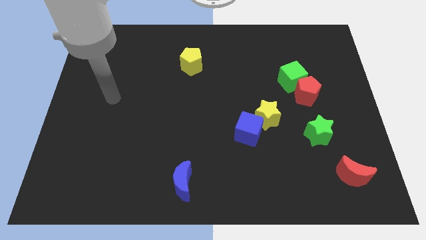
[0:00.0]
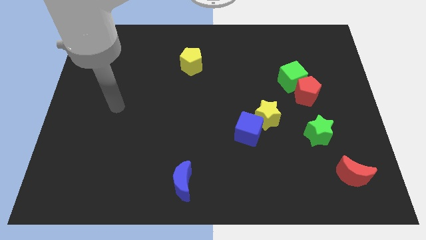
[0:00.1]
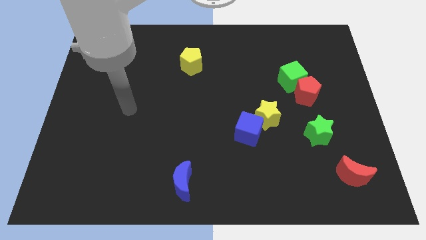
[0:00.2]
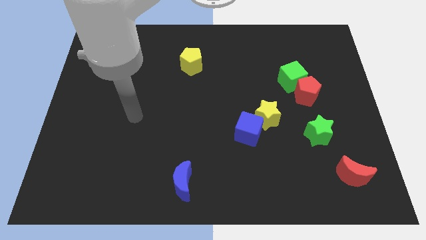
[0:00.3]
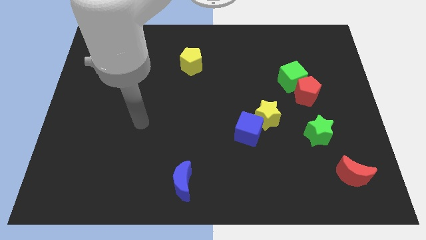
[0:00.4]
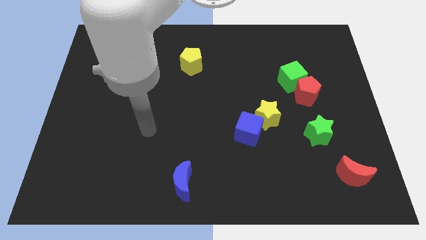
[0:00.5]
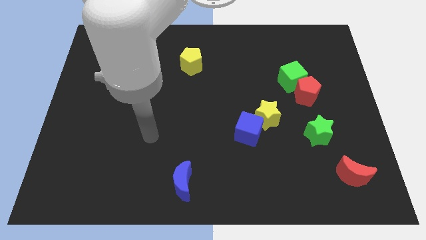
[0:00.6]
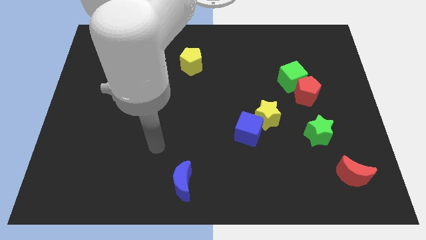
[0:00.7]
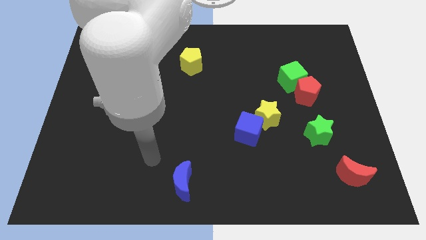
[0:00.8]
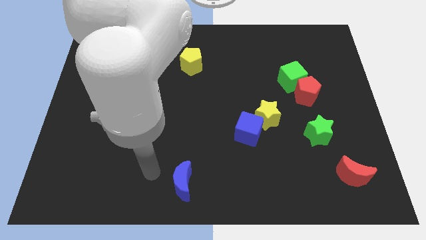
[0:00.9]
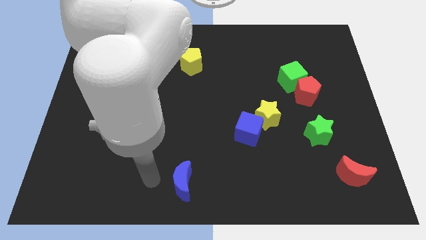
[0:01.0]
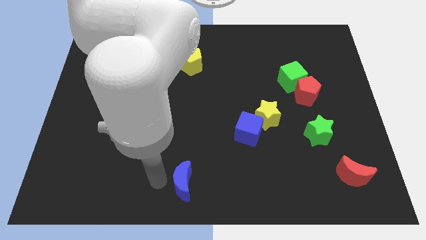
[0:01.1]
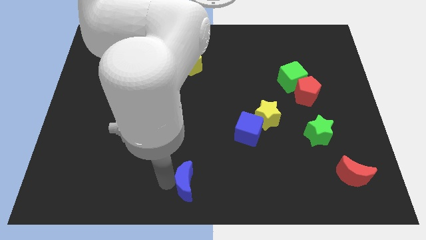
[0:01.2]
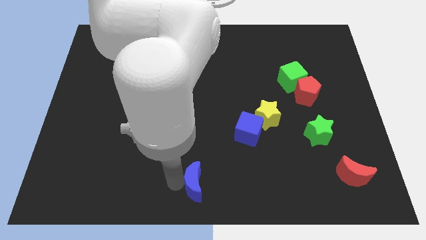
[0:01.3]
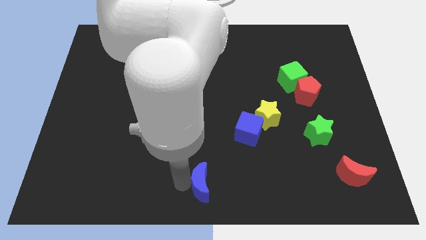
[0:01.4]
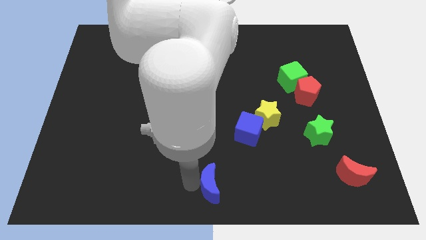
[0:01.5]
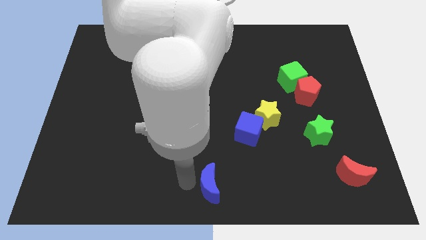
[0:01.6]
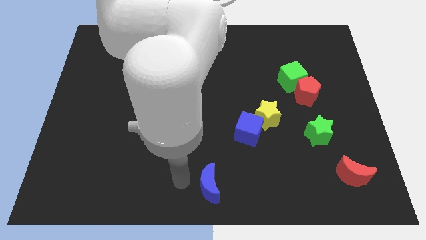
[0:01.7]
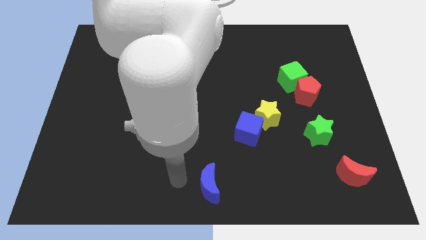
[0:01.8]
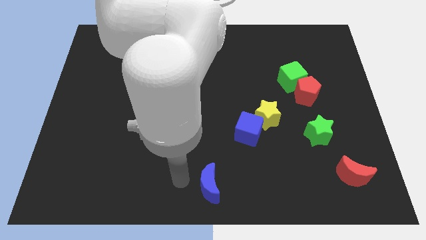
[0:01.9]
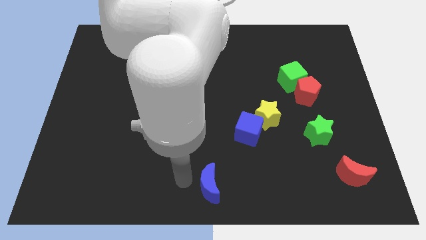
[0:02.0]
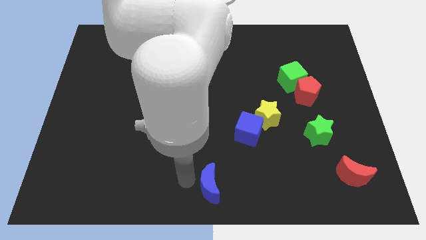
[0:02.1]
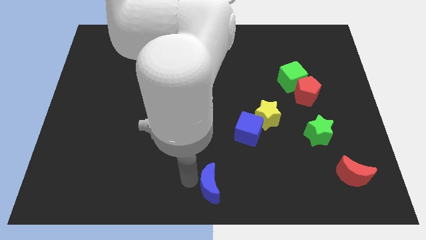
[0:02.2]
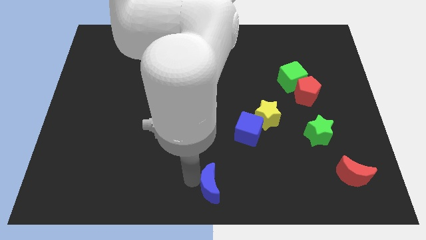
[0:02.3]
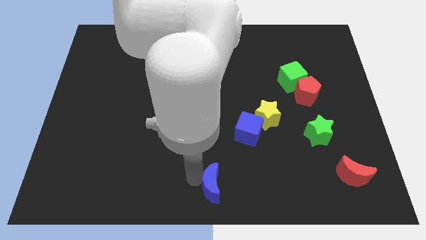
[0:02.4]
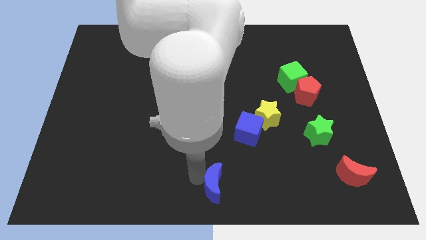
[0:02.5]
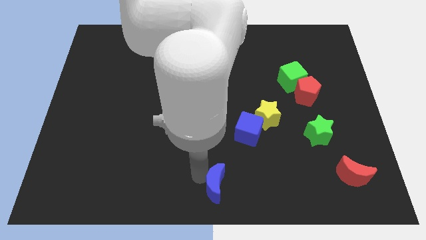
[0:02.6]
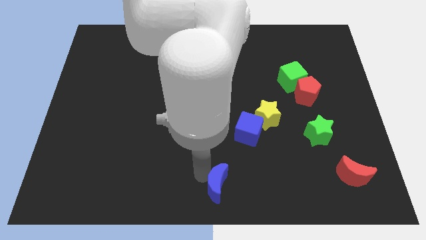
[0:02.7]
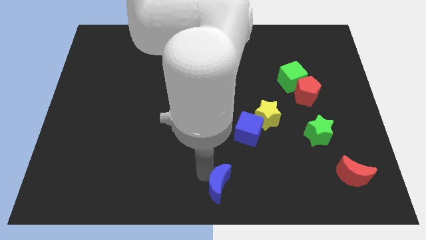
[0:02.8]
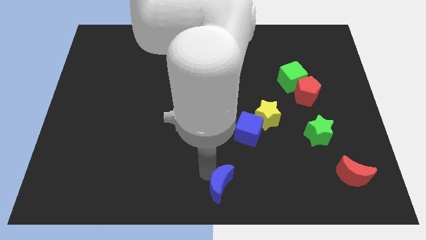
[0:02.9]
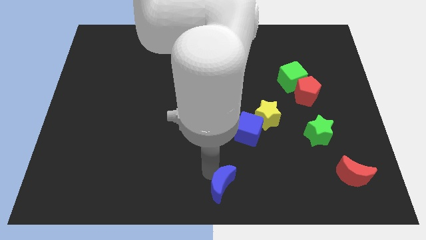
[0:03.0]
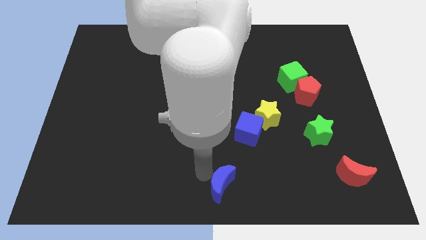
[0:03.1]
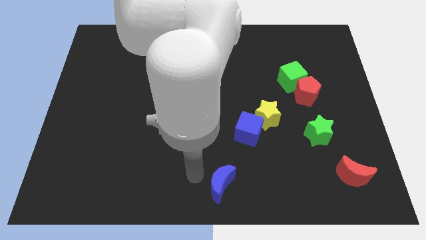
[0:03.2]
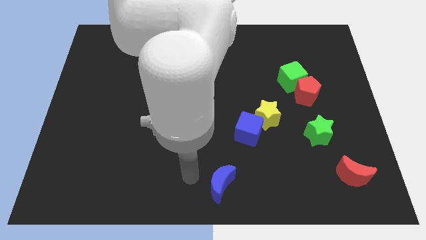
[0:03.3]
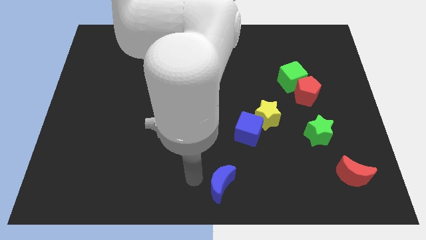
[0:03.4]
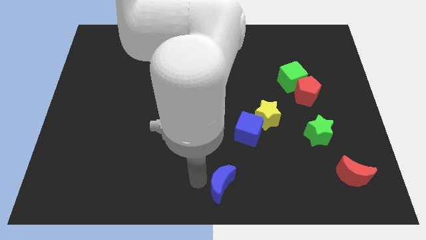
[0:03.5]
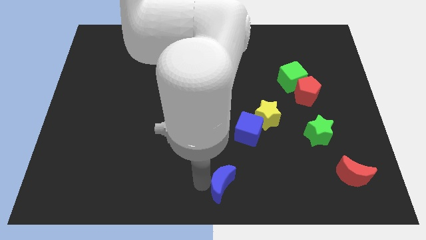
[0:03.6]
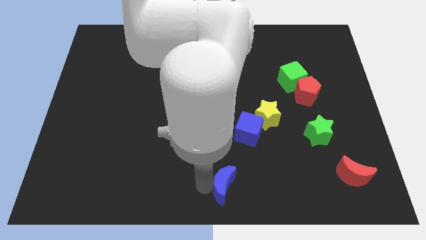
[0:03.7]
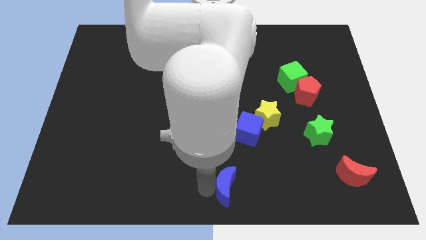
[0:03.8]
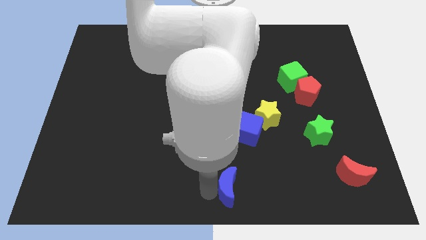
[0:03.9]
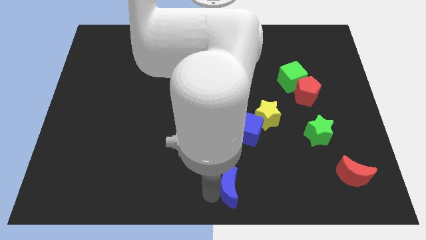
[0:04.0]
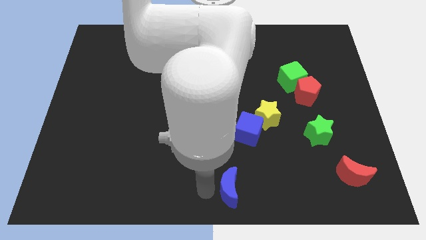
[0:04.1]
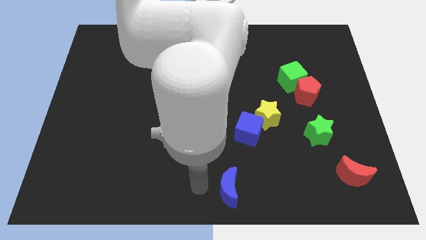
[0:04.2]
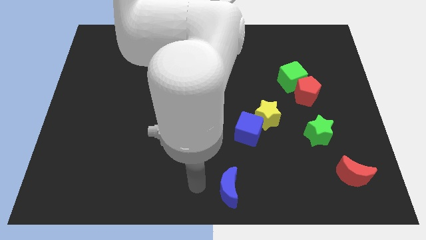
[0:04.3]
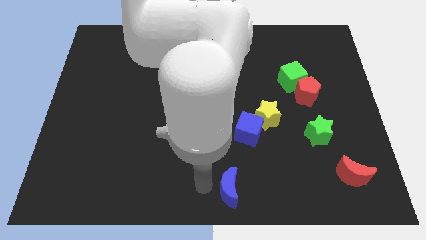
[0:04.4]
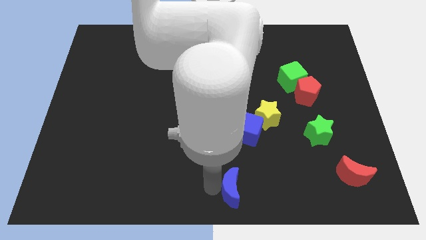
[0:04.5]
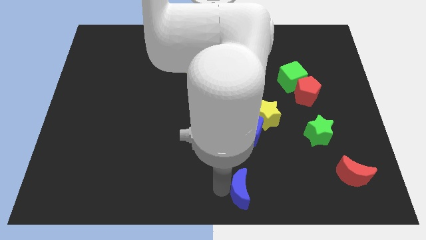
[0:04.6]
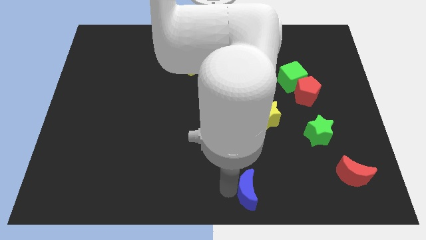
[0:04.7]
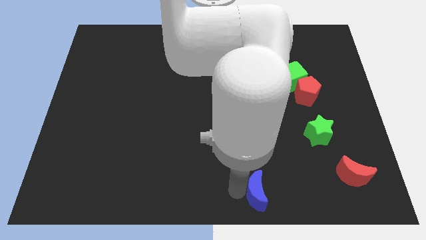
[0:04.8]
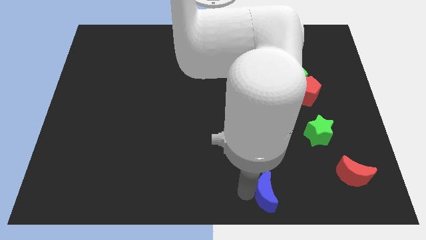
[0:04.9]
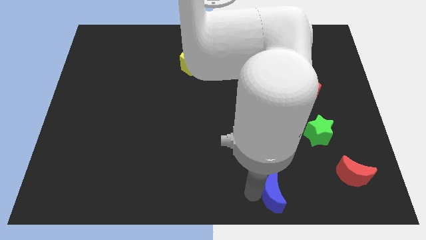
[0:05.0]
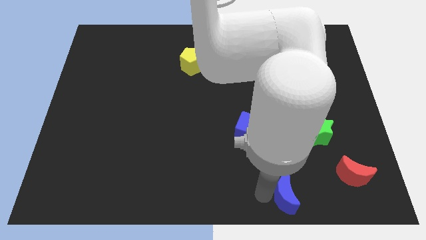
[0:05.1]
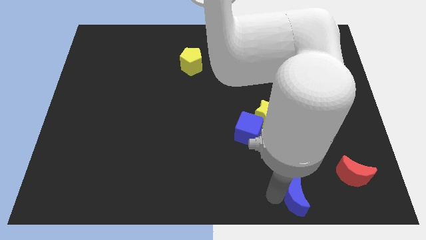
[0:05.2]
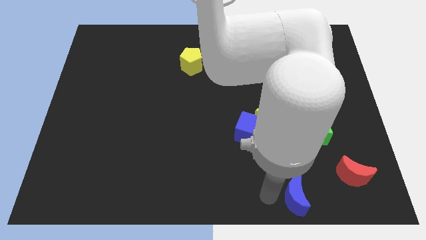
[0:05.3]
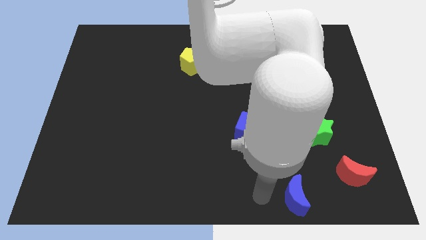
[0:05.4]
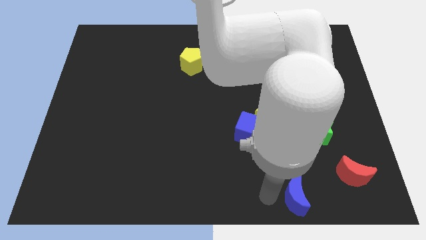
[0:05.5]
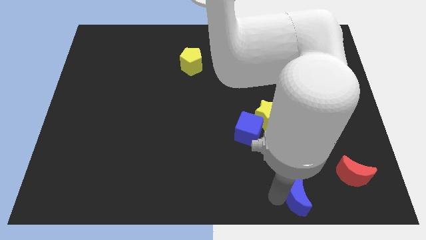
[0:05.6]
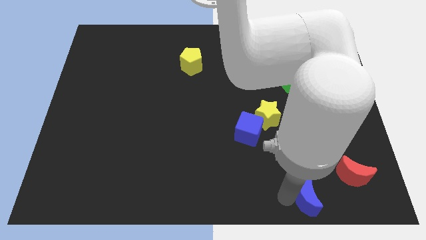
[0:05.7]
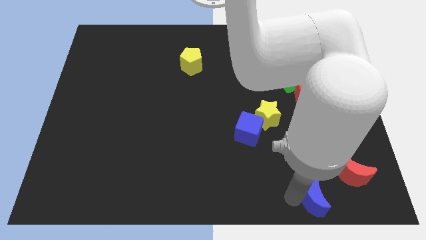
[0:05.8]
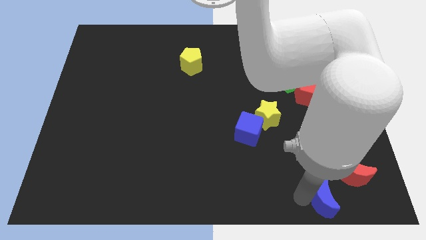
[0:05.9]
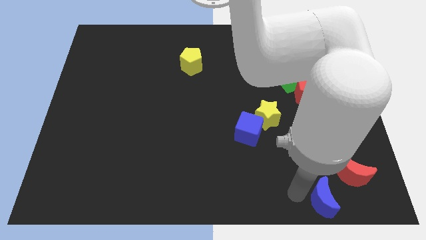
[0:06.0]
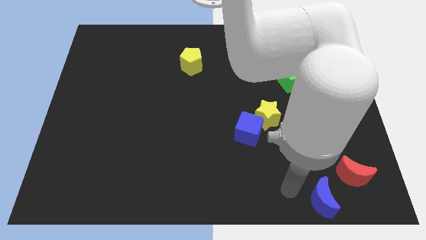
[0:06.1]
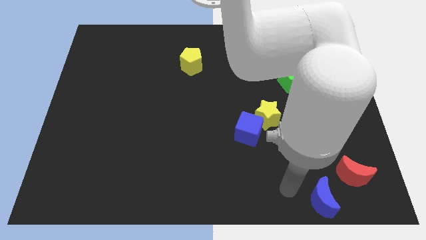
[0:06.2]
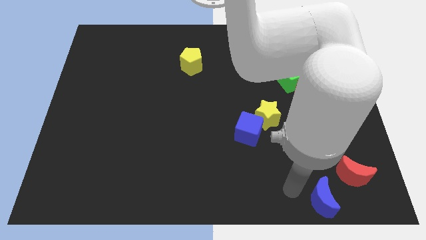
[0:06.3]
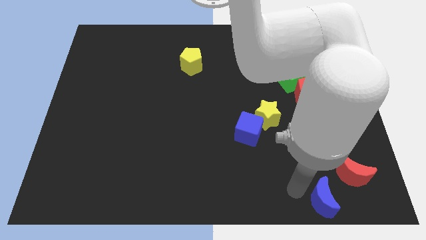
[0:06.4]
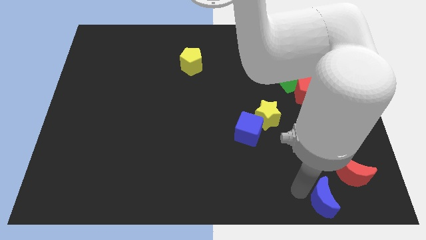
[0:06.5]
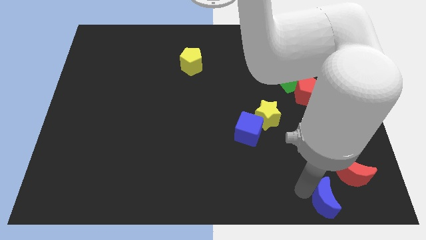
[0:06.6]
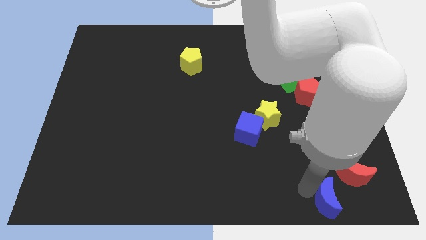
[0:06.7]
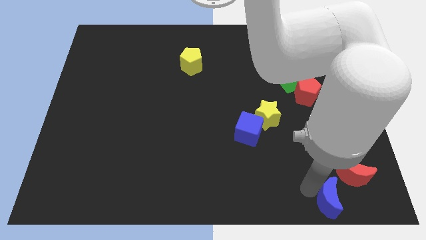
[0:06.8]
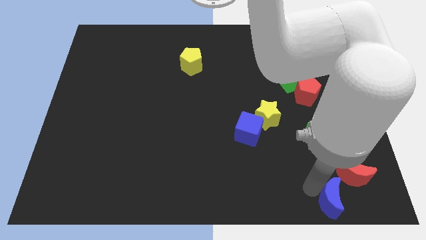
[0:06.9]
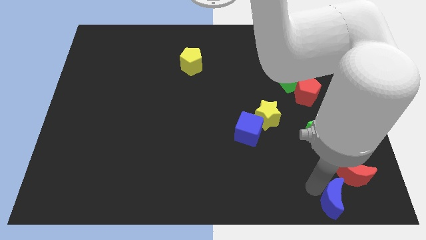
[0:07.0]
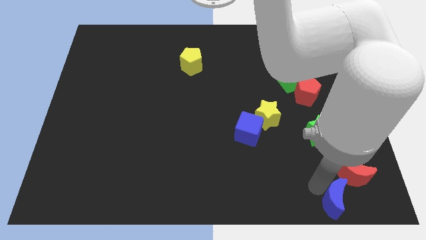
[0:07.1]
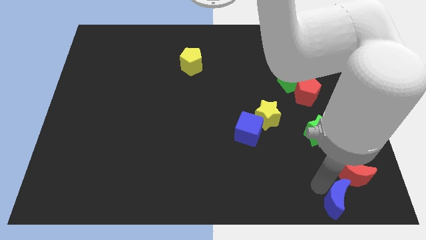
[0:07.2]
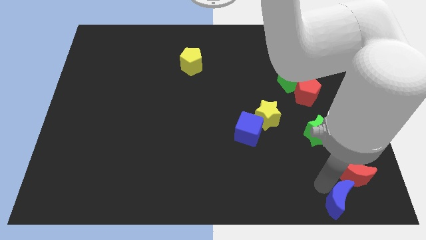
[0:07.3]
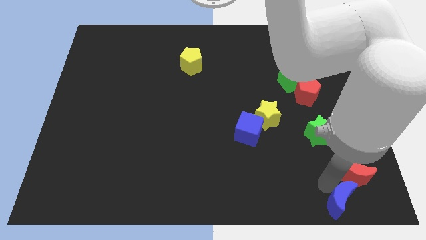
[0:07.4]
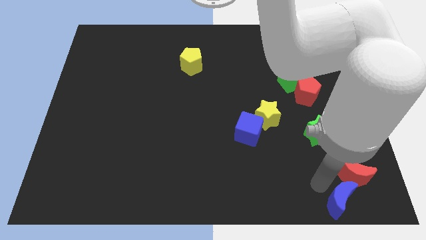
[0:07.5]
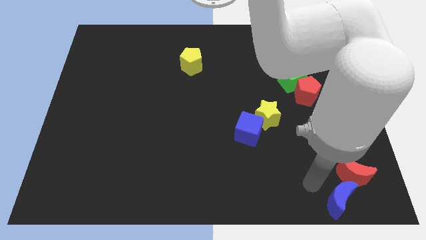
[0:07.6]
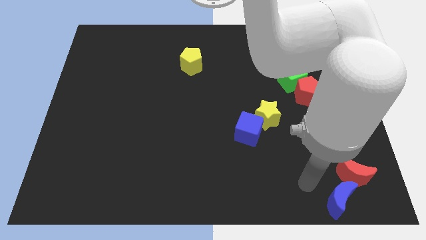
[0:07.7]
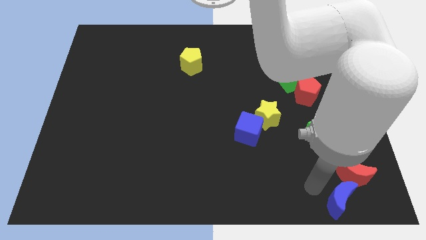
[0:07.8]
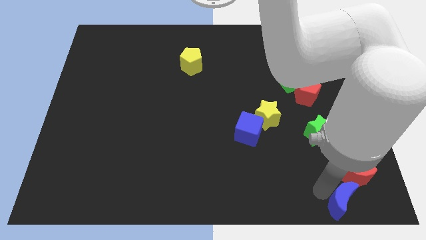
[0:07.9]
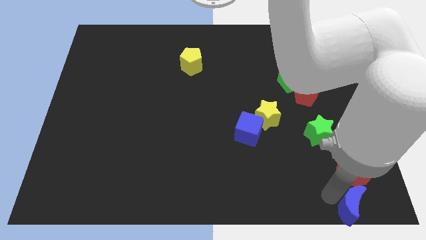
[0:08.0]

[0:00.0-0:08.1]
slide the blue moon to the bottom right of the board
